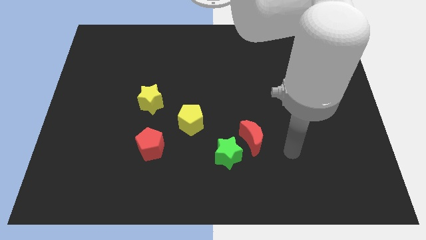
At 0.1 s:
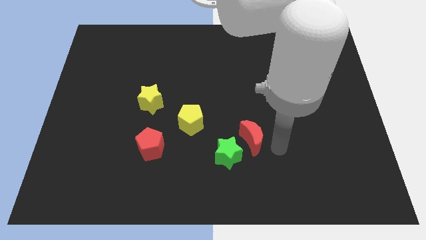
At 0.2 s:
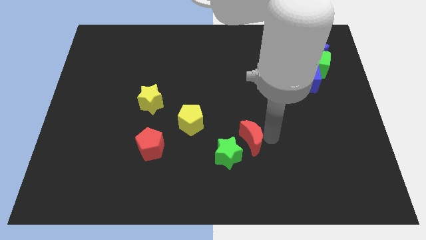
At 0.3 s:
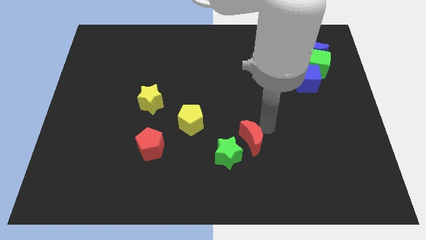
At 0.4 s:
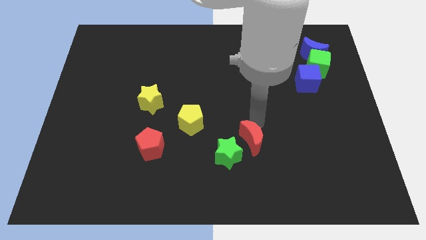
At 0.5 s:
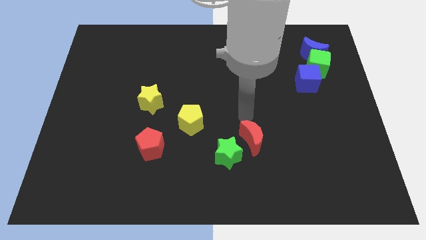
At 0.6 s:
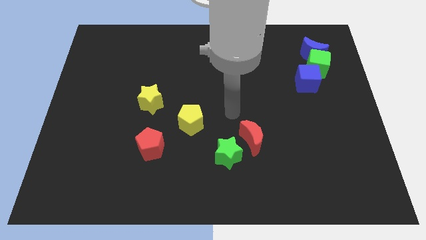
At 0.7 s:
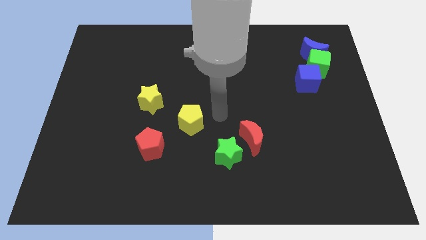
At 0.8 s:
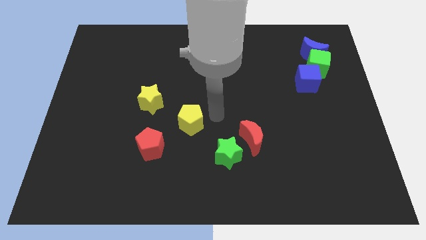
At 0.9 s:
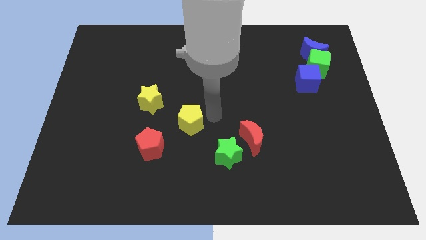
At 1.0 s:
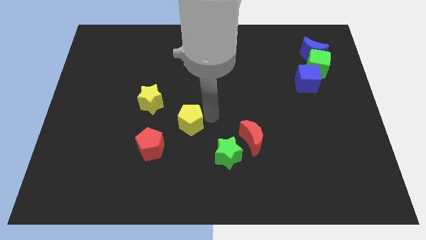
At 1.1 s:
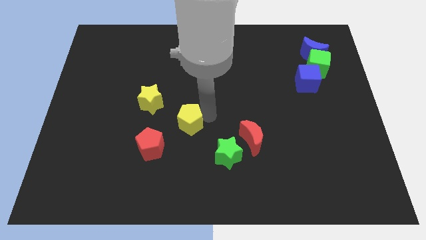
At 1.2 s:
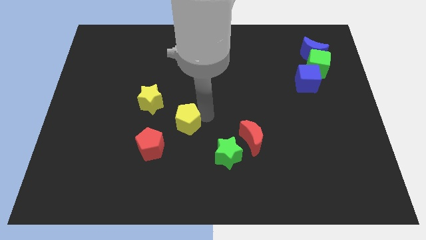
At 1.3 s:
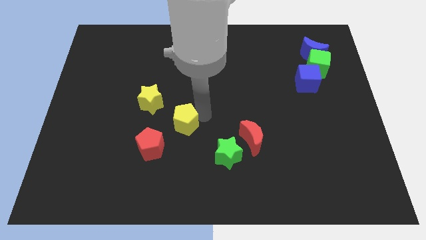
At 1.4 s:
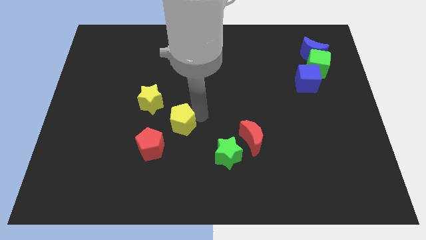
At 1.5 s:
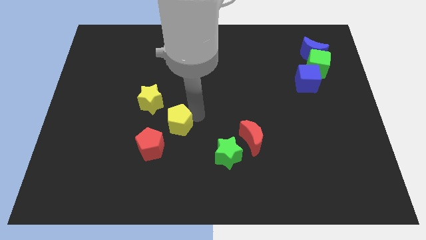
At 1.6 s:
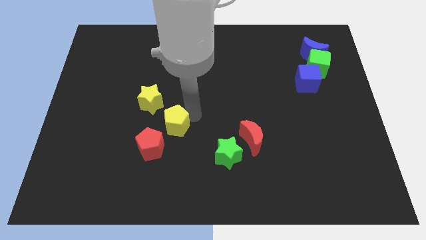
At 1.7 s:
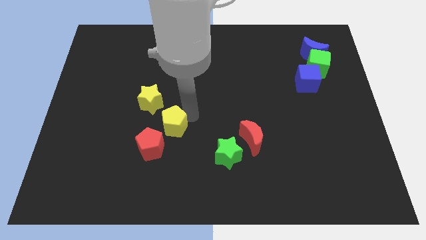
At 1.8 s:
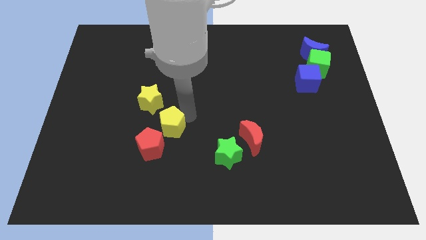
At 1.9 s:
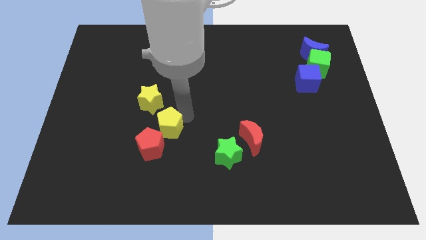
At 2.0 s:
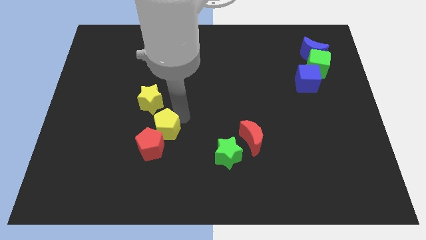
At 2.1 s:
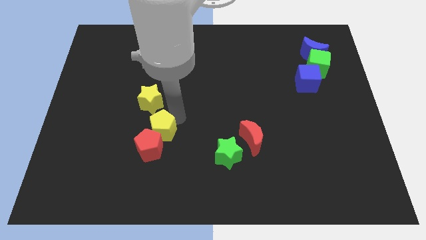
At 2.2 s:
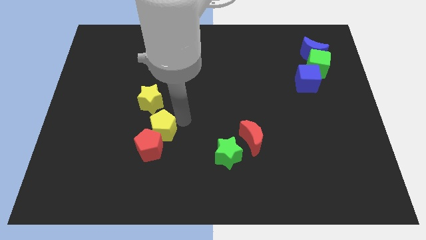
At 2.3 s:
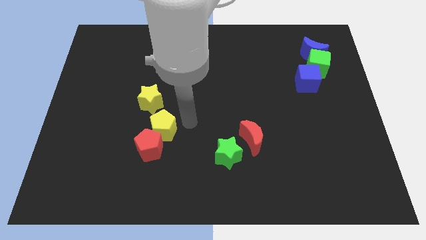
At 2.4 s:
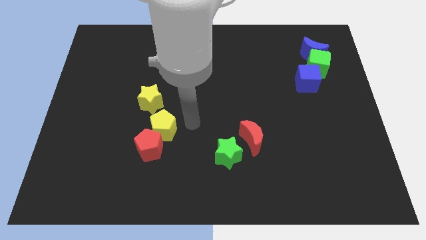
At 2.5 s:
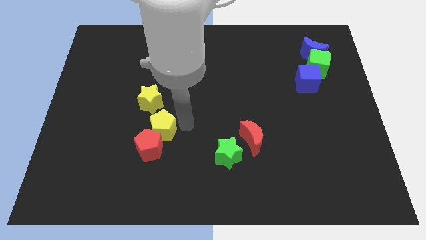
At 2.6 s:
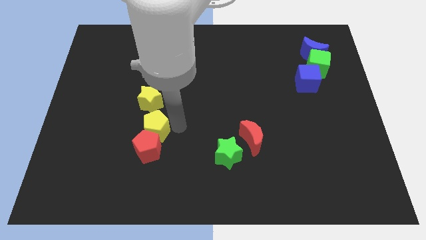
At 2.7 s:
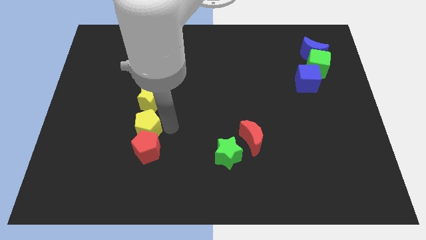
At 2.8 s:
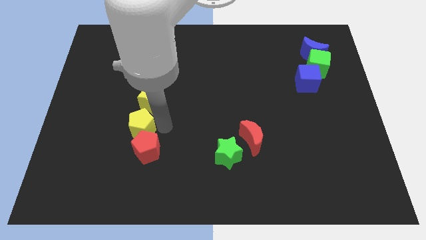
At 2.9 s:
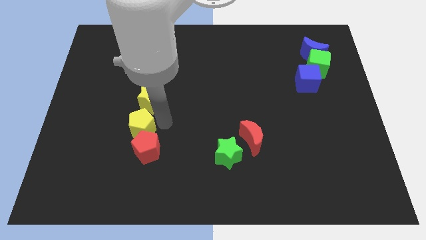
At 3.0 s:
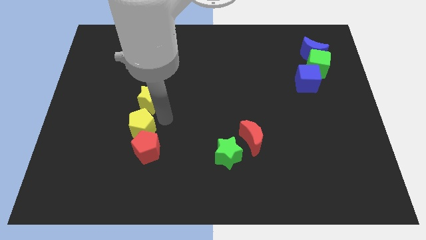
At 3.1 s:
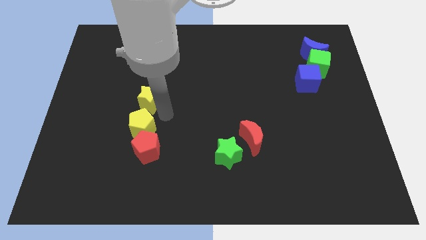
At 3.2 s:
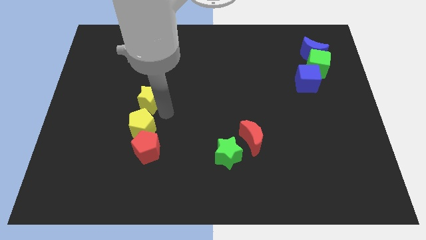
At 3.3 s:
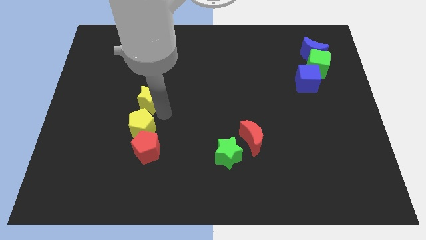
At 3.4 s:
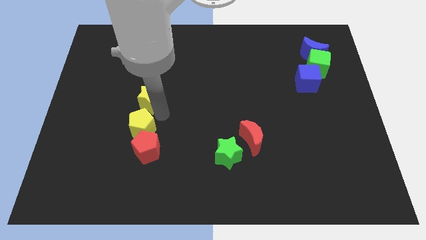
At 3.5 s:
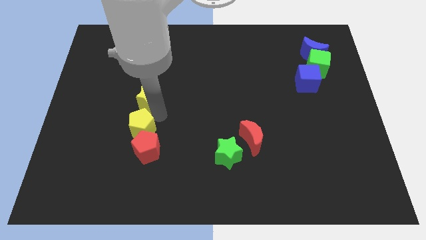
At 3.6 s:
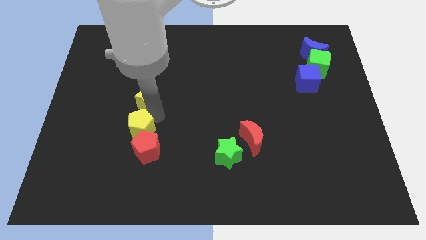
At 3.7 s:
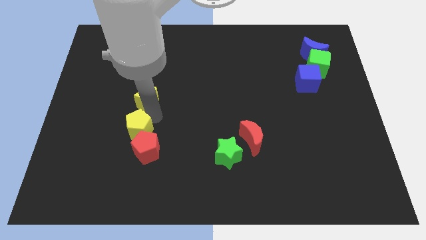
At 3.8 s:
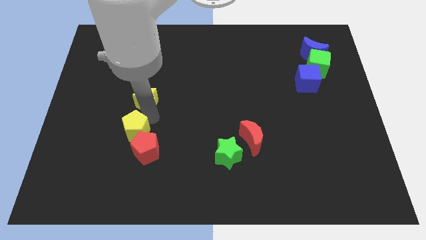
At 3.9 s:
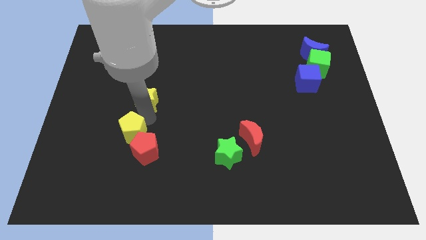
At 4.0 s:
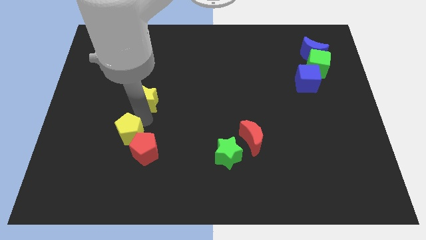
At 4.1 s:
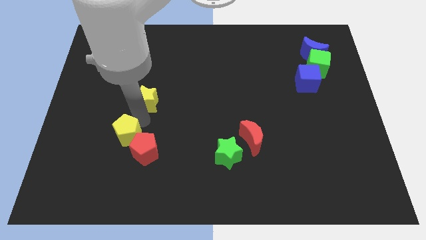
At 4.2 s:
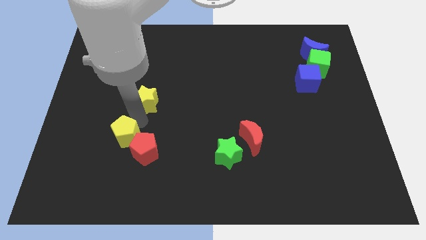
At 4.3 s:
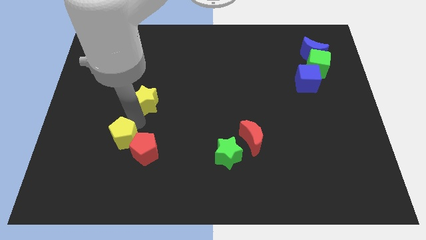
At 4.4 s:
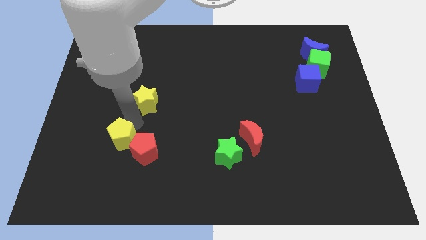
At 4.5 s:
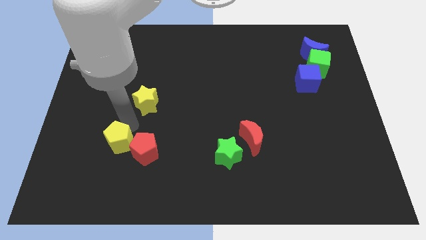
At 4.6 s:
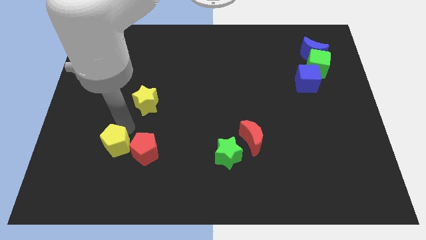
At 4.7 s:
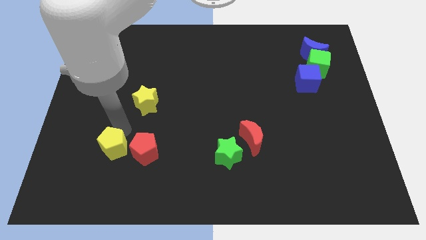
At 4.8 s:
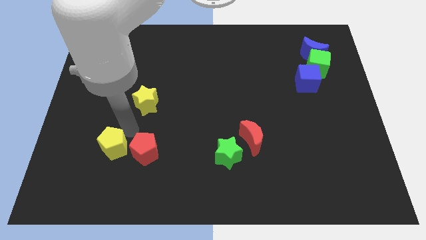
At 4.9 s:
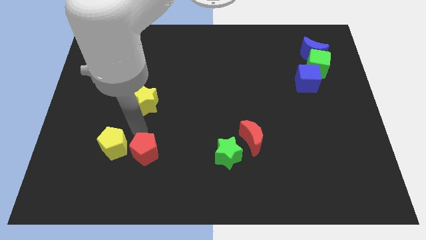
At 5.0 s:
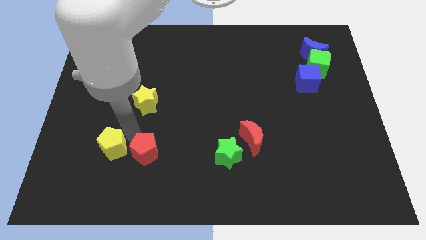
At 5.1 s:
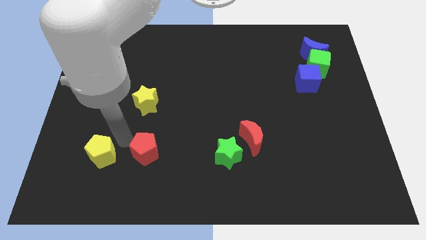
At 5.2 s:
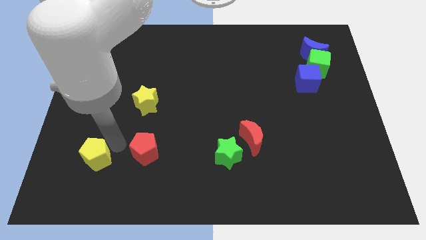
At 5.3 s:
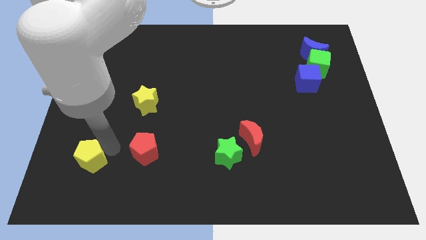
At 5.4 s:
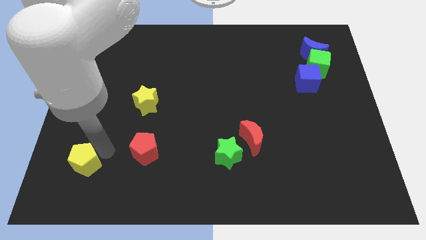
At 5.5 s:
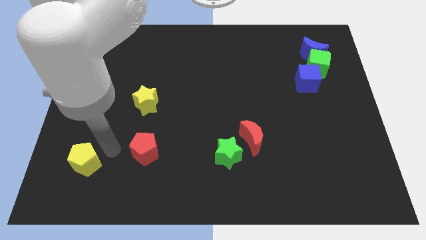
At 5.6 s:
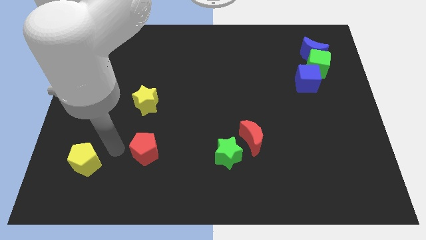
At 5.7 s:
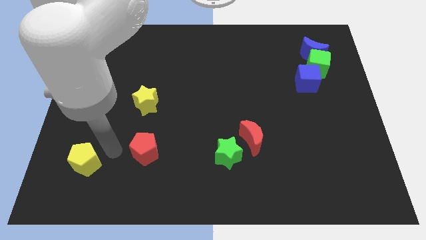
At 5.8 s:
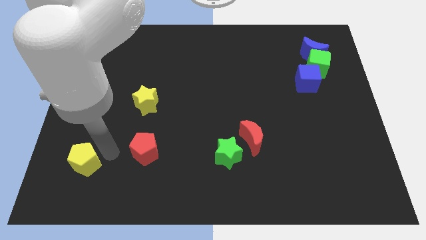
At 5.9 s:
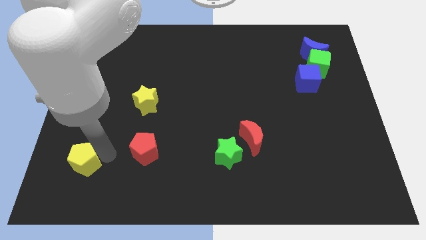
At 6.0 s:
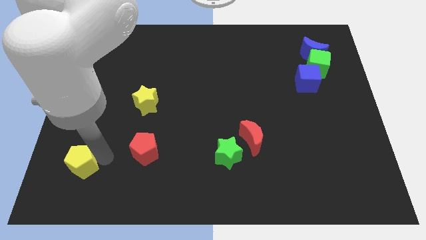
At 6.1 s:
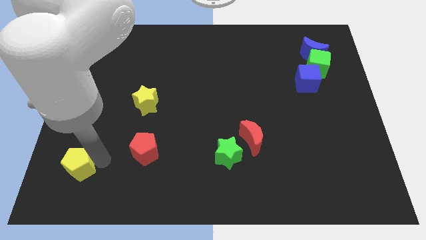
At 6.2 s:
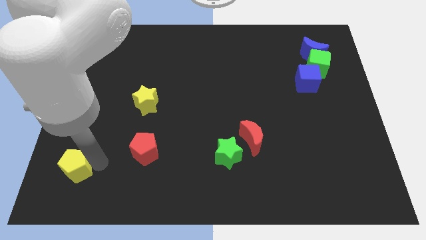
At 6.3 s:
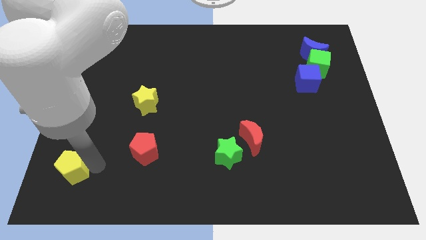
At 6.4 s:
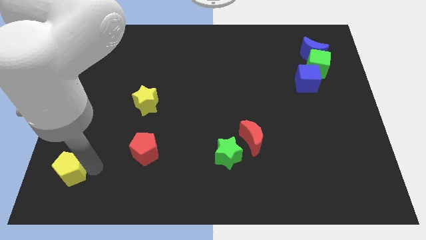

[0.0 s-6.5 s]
put the yellow pentagon to the bottom left of the board
